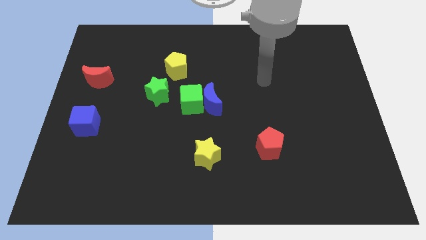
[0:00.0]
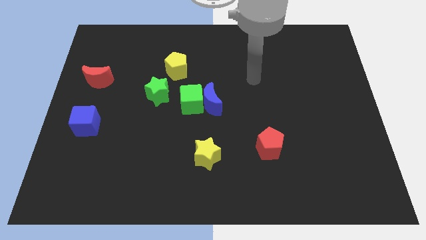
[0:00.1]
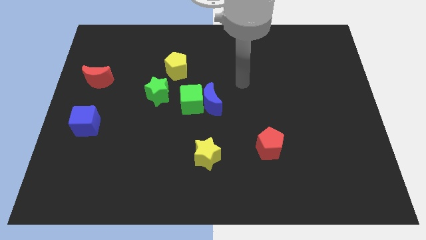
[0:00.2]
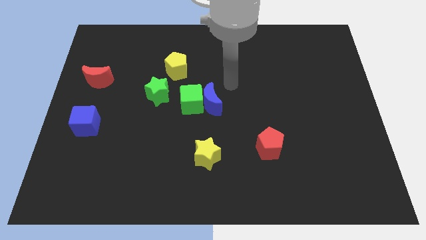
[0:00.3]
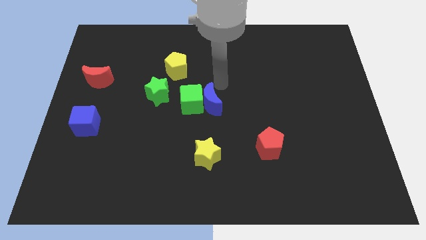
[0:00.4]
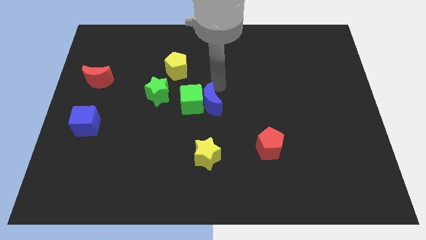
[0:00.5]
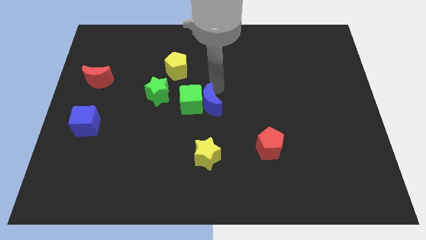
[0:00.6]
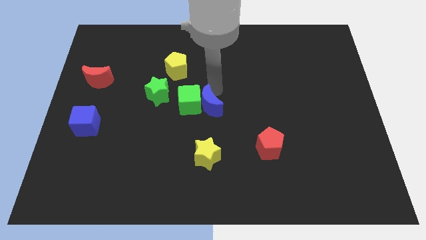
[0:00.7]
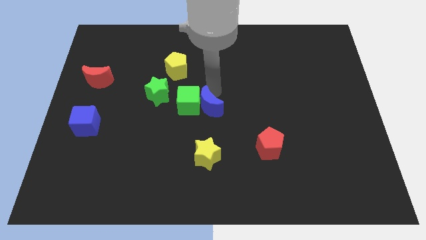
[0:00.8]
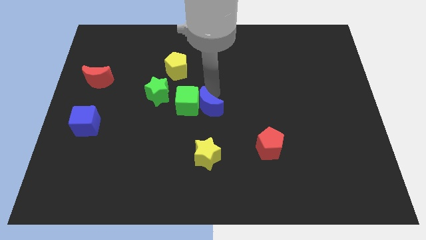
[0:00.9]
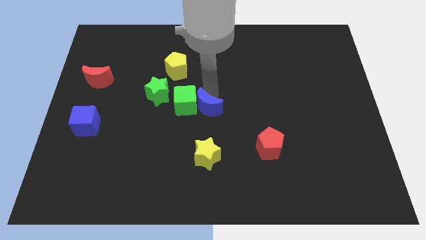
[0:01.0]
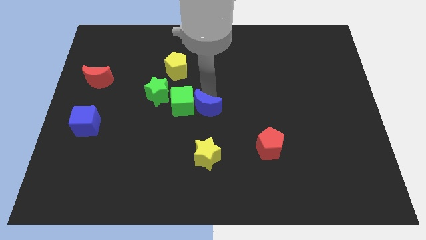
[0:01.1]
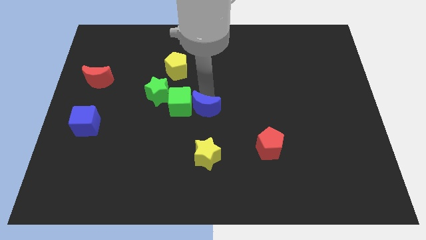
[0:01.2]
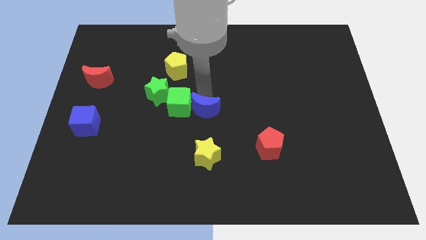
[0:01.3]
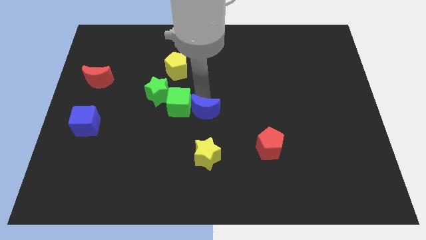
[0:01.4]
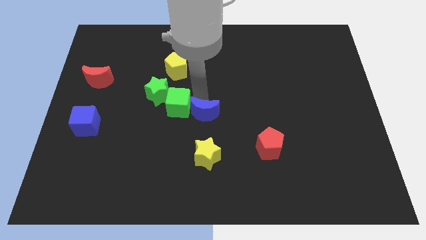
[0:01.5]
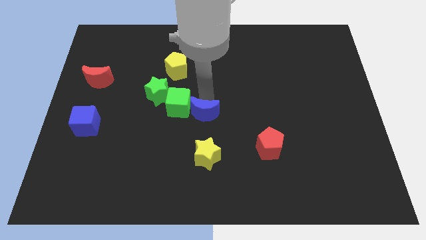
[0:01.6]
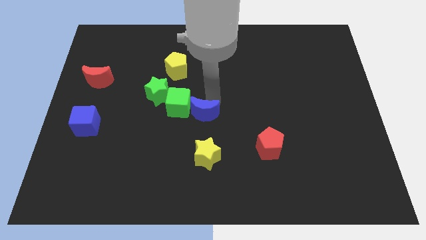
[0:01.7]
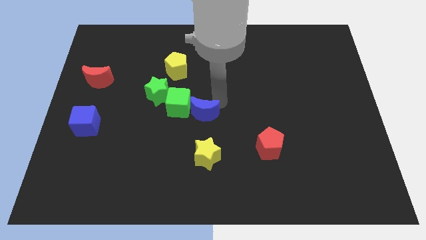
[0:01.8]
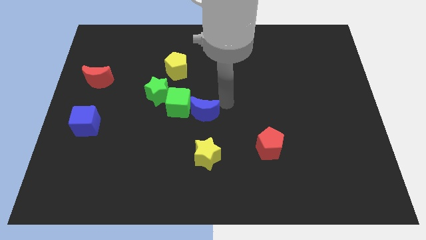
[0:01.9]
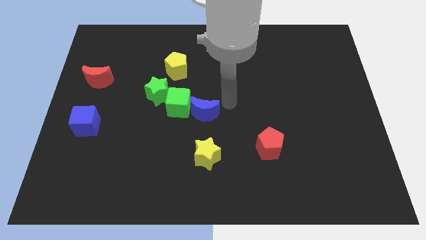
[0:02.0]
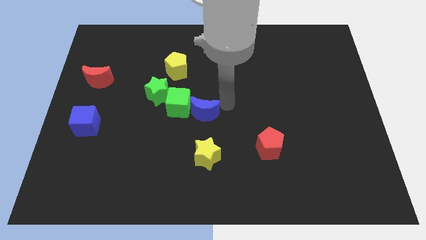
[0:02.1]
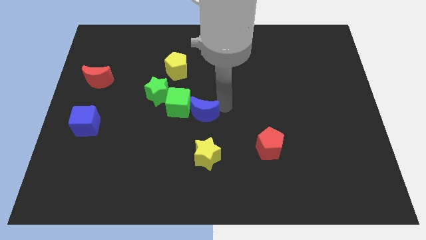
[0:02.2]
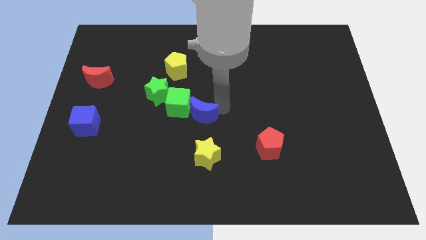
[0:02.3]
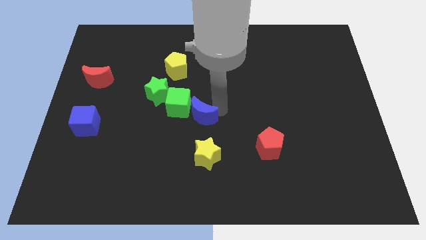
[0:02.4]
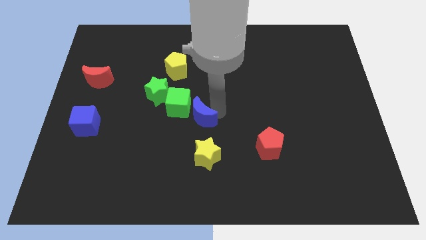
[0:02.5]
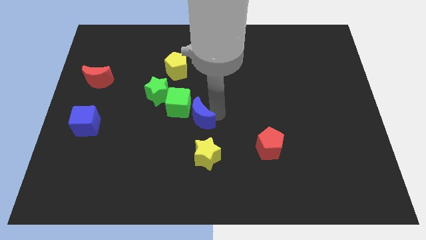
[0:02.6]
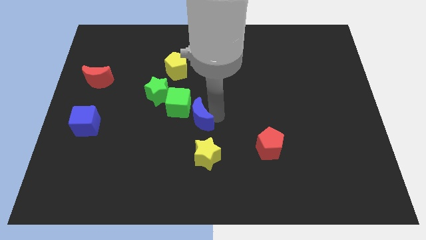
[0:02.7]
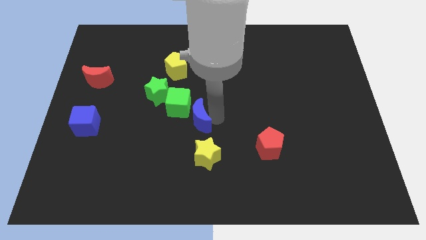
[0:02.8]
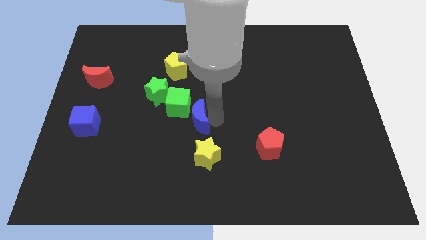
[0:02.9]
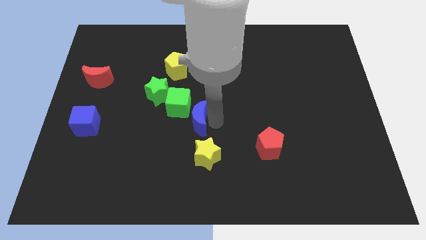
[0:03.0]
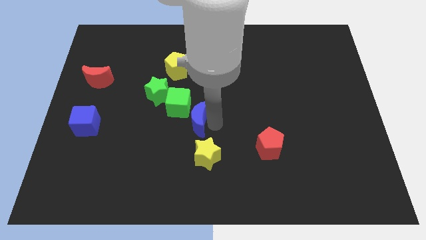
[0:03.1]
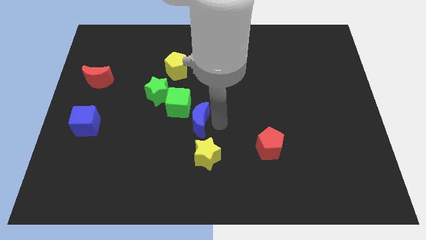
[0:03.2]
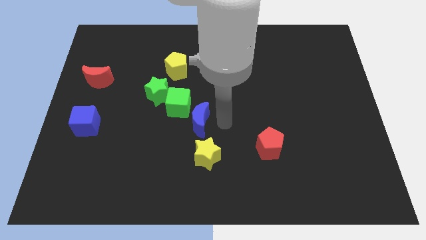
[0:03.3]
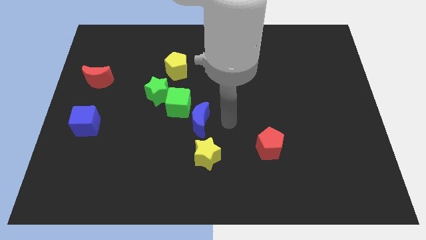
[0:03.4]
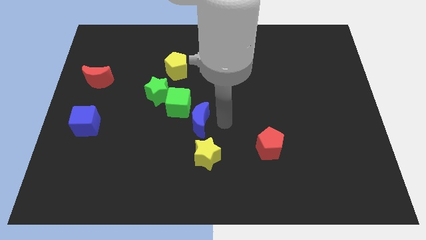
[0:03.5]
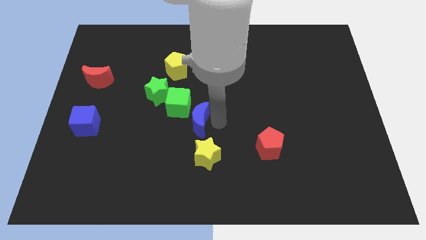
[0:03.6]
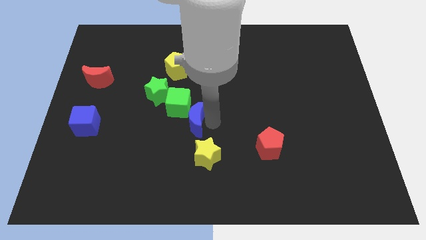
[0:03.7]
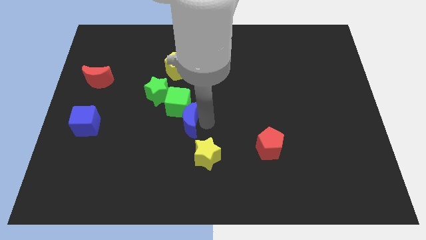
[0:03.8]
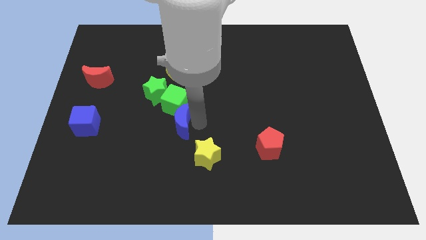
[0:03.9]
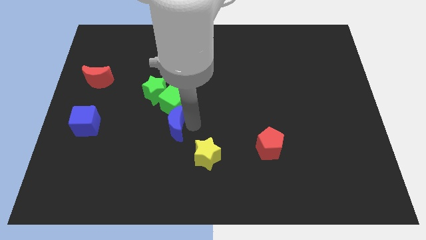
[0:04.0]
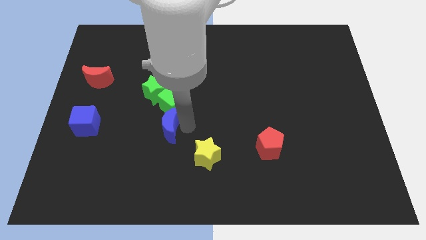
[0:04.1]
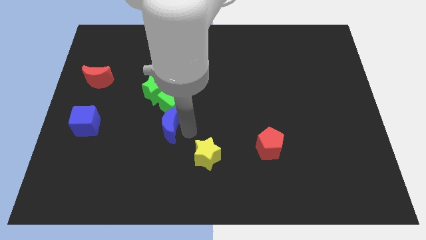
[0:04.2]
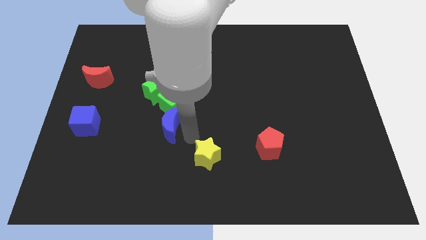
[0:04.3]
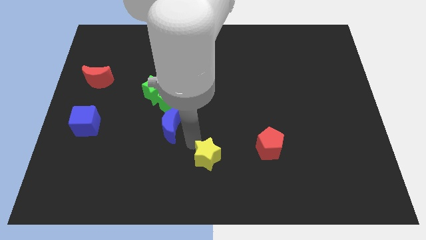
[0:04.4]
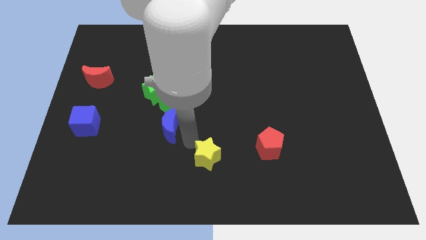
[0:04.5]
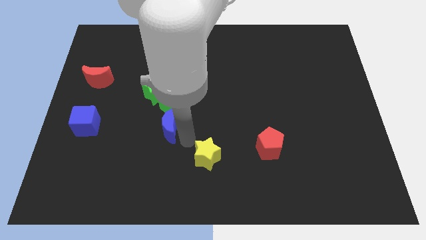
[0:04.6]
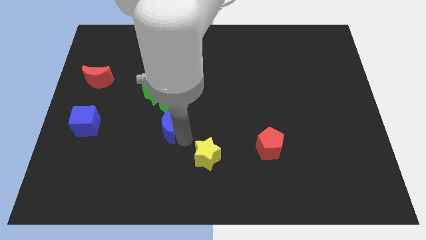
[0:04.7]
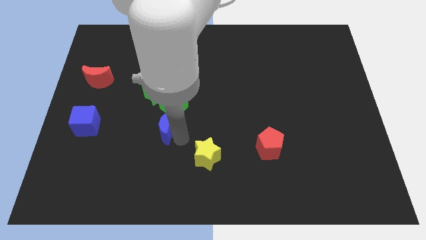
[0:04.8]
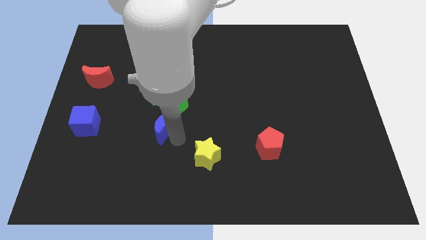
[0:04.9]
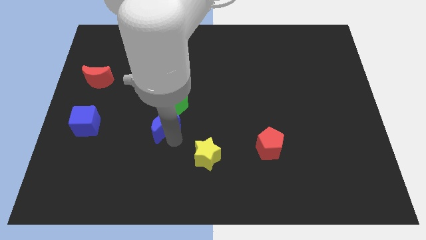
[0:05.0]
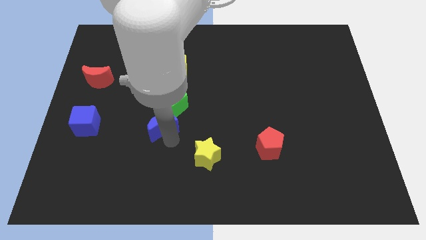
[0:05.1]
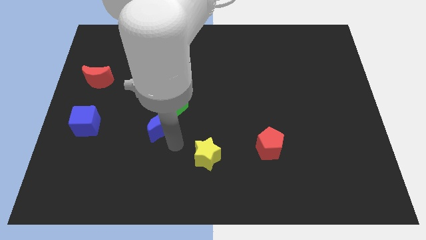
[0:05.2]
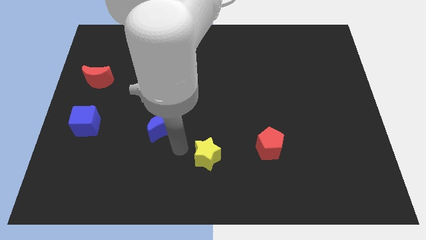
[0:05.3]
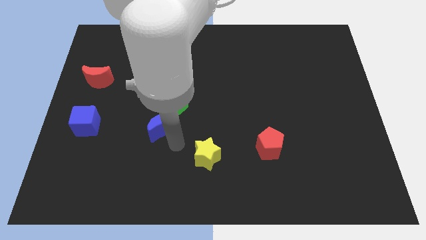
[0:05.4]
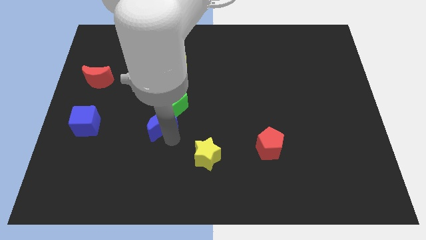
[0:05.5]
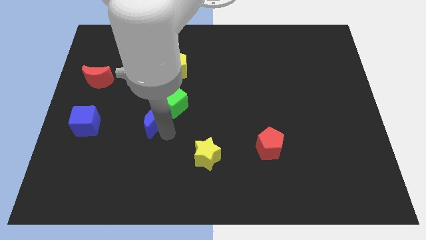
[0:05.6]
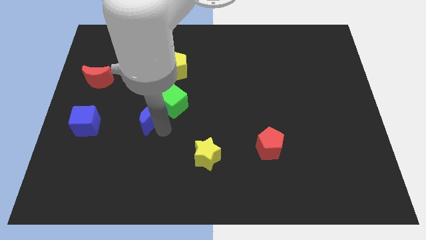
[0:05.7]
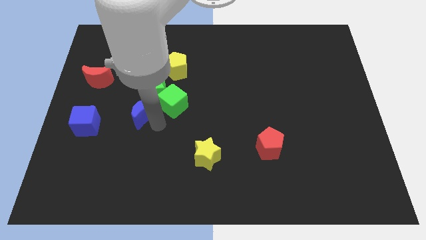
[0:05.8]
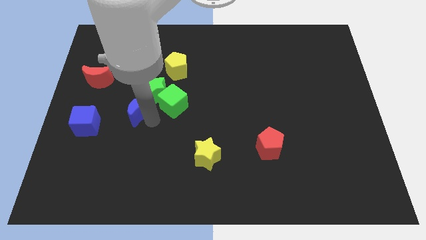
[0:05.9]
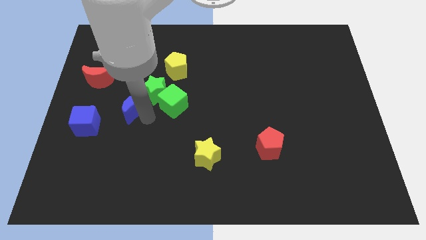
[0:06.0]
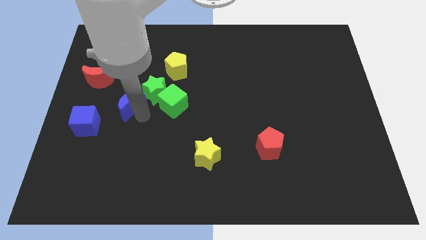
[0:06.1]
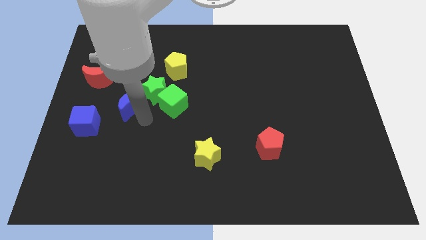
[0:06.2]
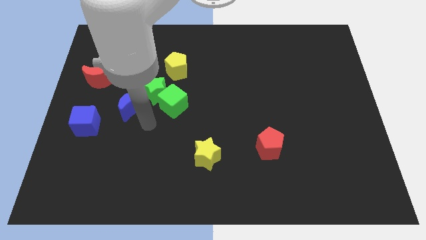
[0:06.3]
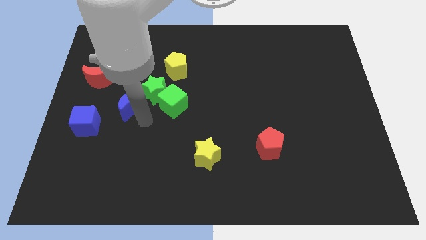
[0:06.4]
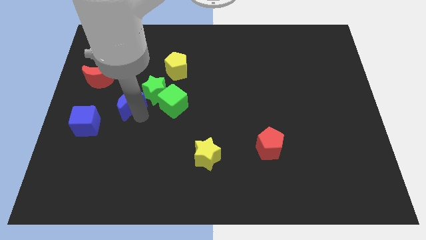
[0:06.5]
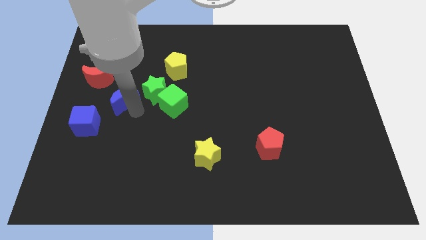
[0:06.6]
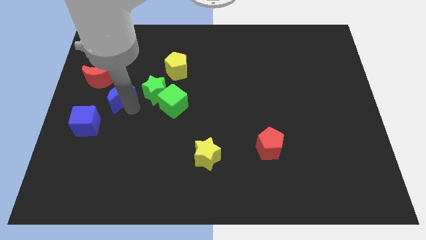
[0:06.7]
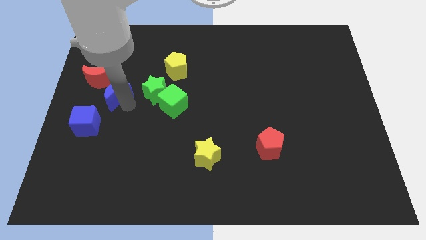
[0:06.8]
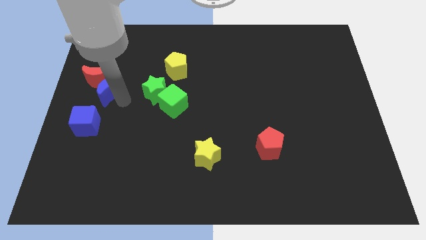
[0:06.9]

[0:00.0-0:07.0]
put the blue moon close to the red moon

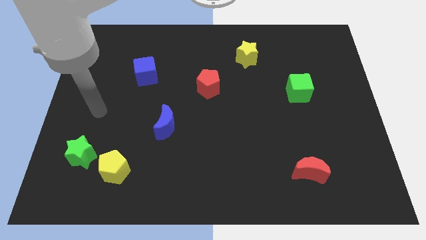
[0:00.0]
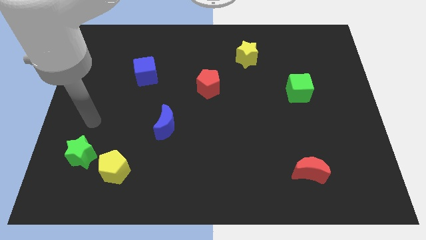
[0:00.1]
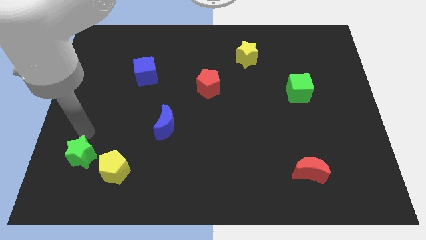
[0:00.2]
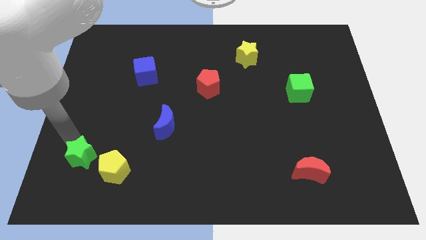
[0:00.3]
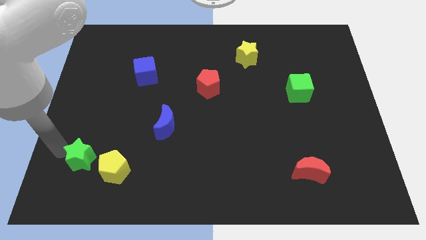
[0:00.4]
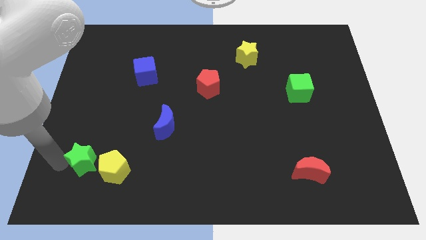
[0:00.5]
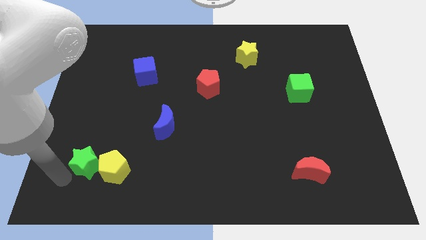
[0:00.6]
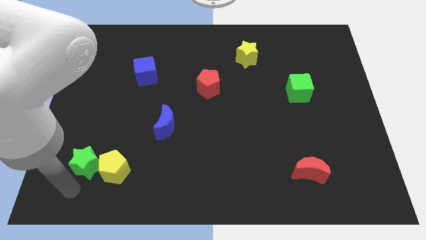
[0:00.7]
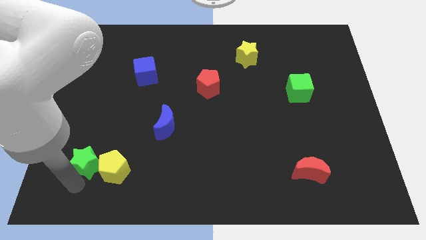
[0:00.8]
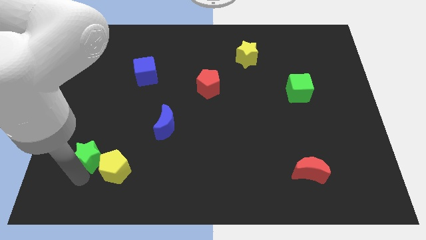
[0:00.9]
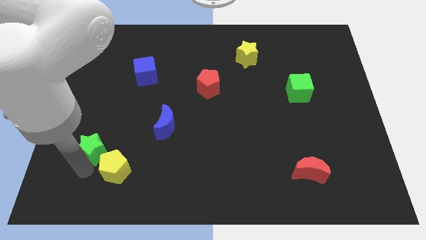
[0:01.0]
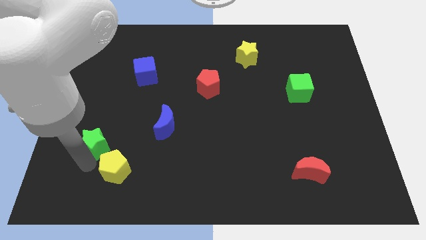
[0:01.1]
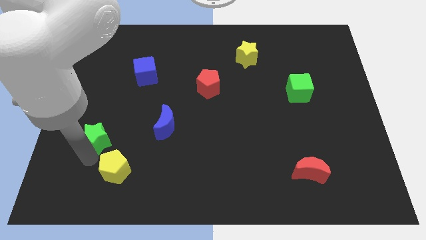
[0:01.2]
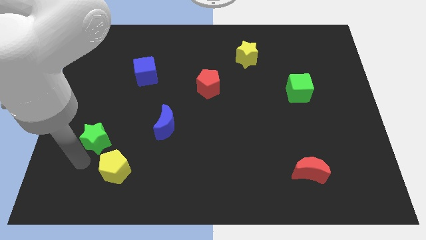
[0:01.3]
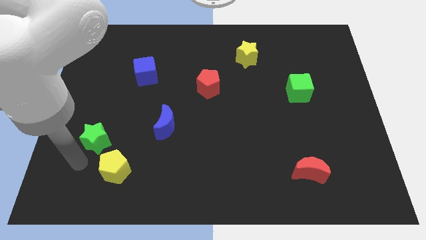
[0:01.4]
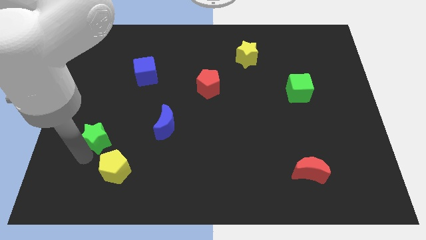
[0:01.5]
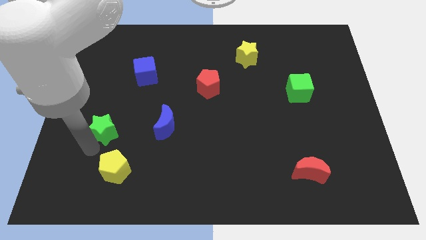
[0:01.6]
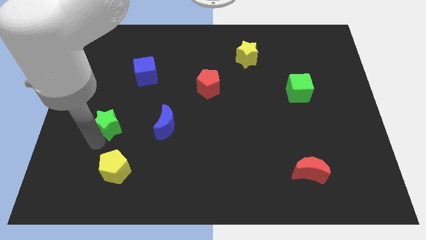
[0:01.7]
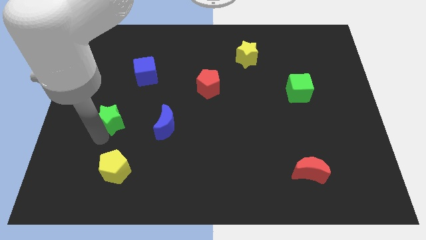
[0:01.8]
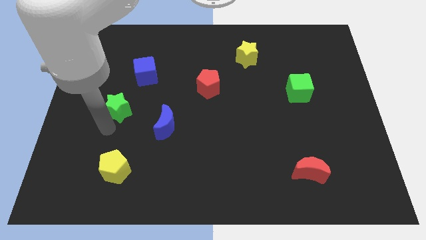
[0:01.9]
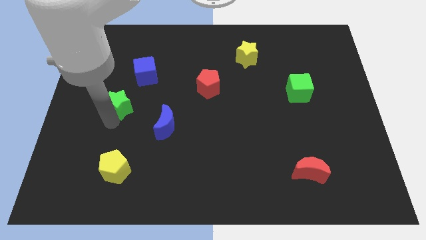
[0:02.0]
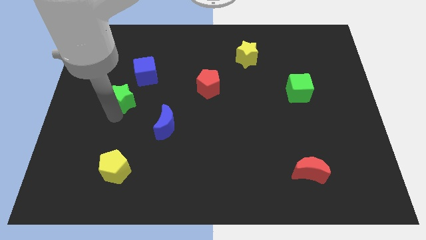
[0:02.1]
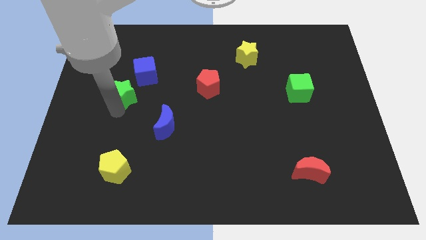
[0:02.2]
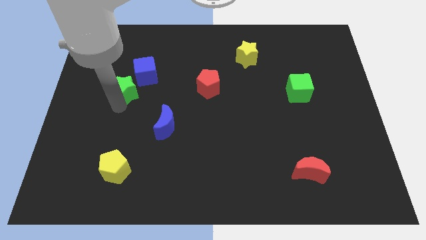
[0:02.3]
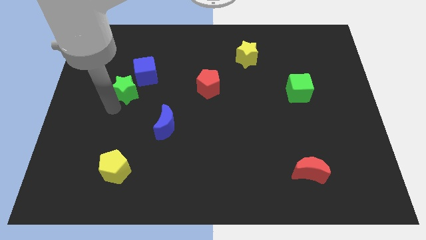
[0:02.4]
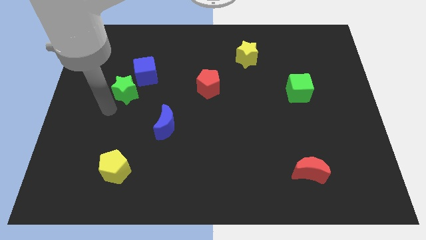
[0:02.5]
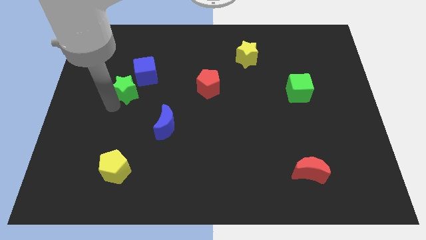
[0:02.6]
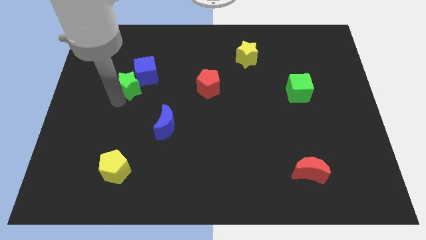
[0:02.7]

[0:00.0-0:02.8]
slide the green star next to the blue cube
